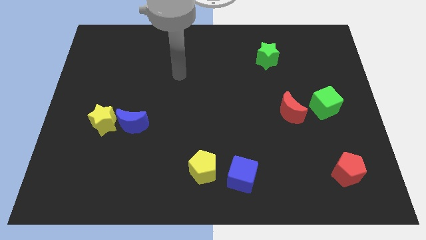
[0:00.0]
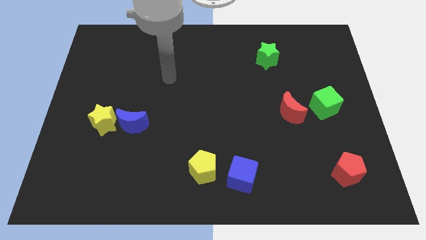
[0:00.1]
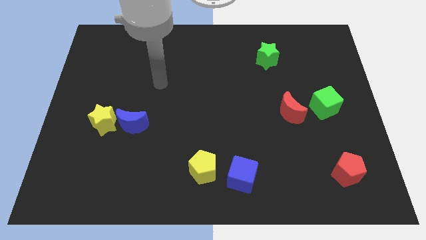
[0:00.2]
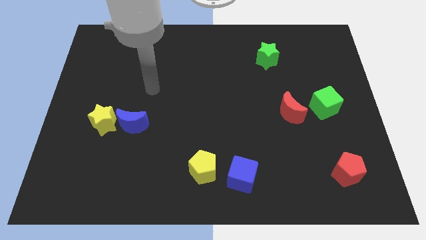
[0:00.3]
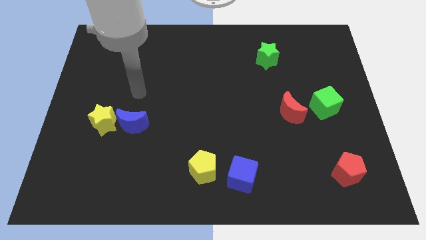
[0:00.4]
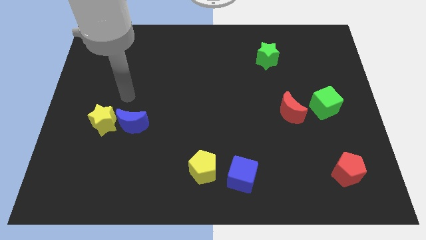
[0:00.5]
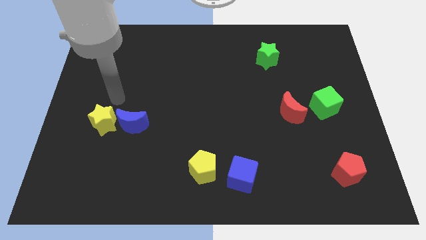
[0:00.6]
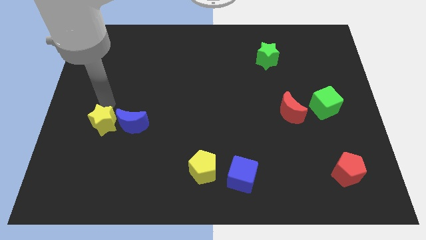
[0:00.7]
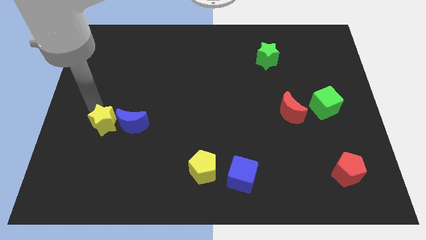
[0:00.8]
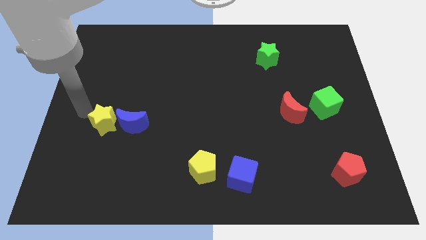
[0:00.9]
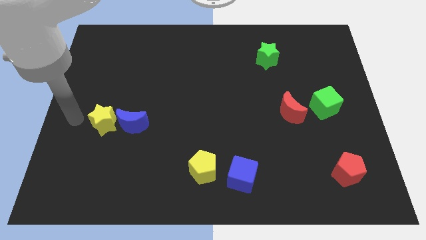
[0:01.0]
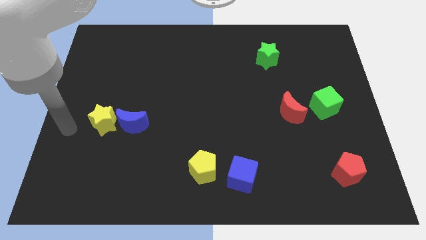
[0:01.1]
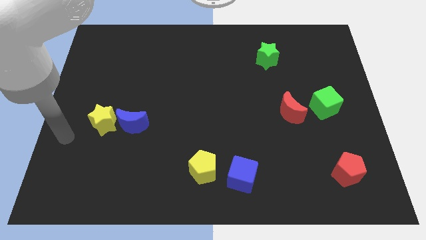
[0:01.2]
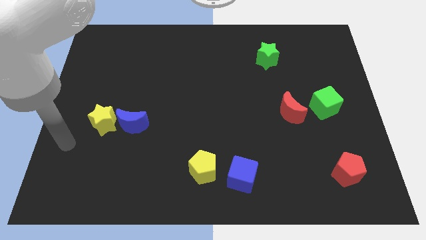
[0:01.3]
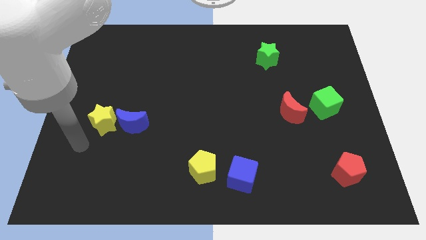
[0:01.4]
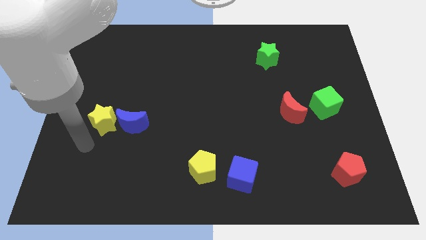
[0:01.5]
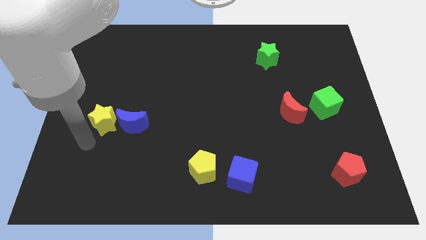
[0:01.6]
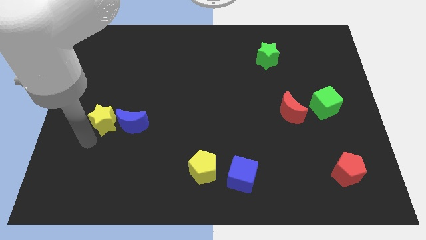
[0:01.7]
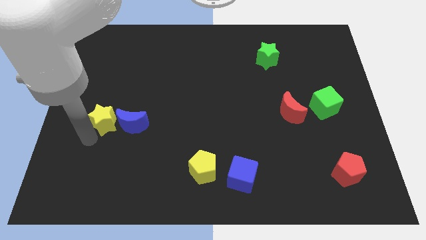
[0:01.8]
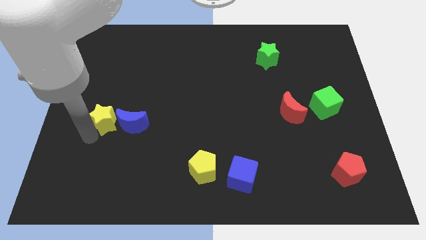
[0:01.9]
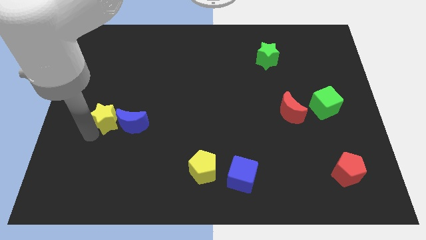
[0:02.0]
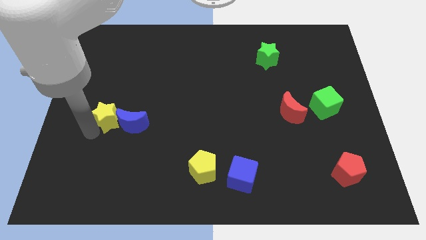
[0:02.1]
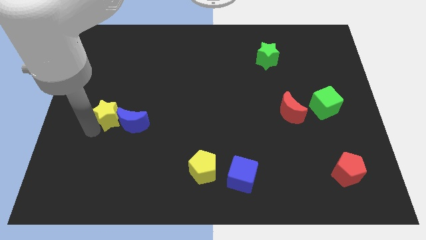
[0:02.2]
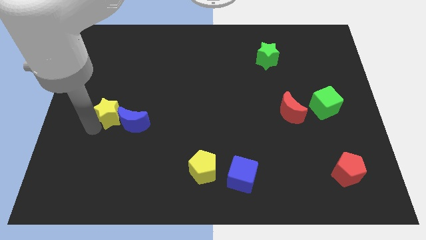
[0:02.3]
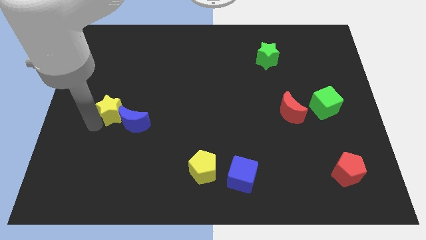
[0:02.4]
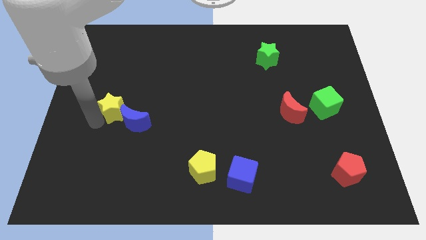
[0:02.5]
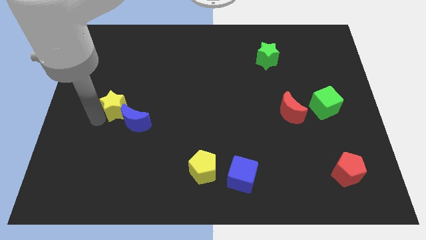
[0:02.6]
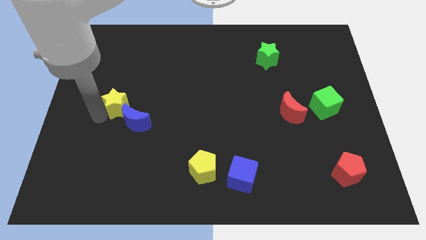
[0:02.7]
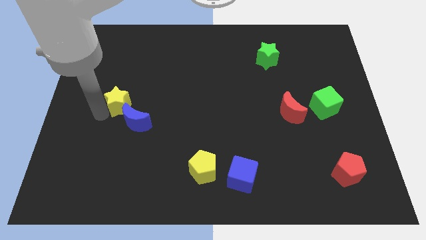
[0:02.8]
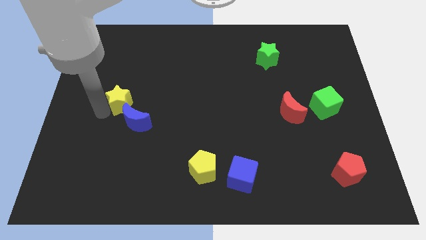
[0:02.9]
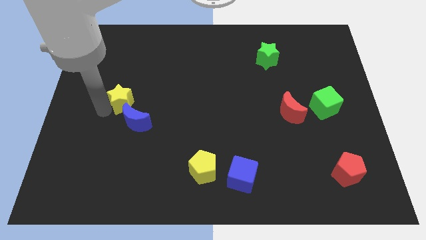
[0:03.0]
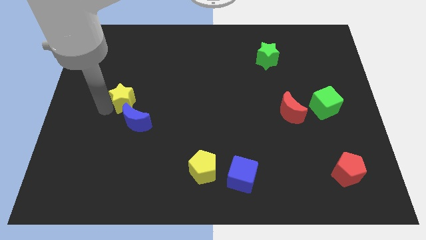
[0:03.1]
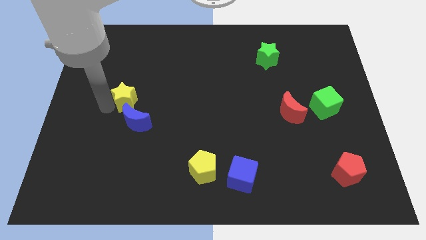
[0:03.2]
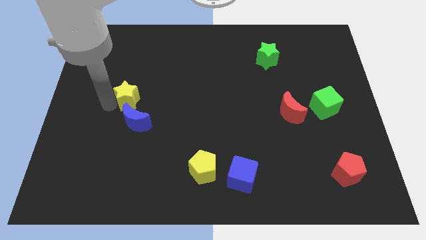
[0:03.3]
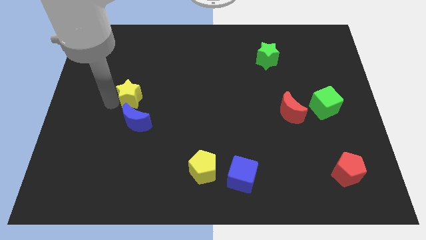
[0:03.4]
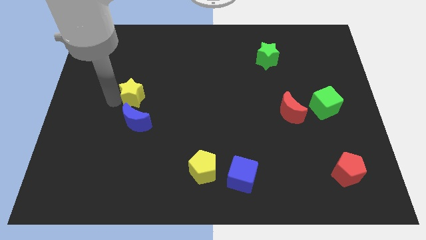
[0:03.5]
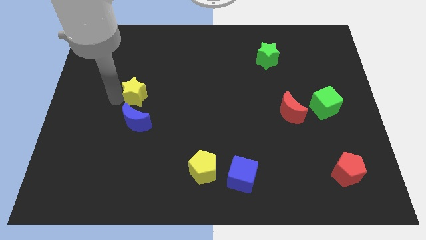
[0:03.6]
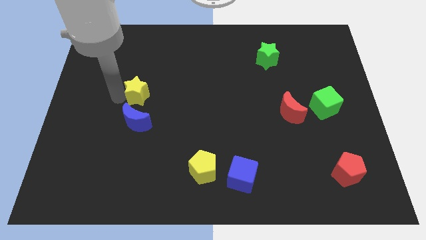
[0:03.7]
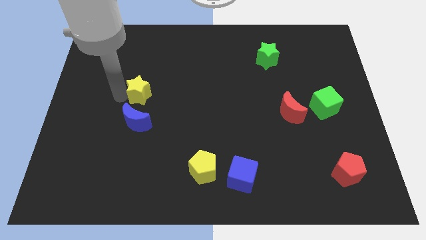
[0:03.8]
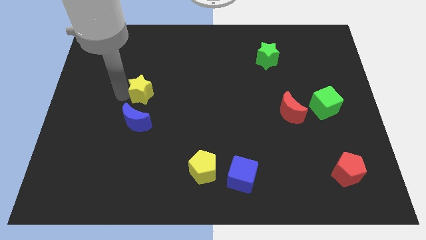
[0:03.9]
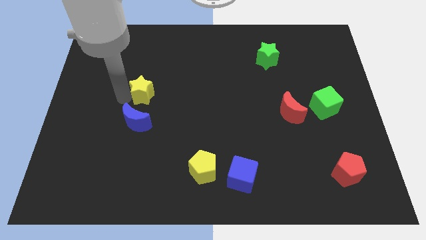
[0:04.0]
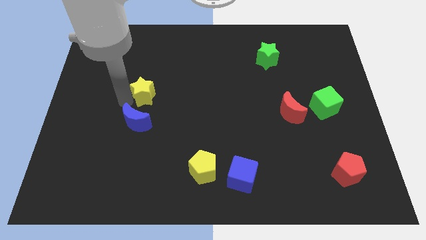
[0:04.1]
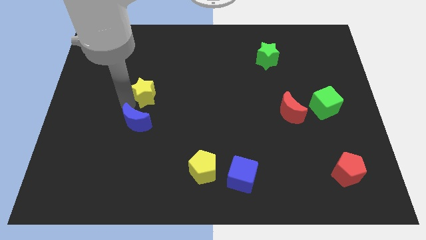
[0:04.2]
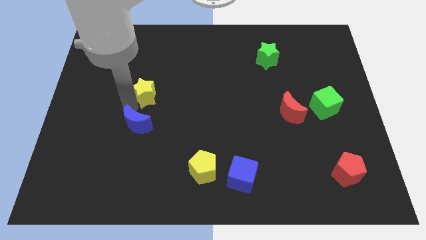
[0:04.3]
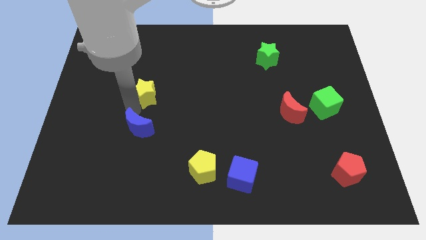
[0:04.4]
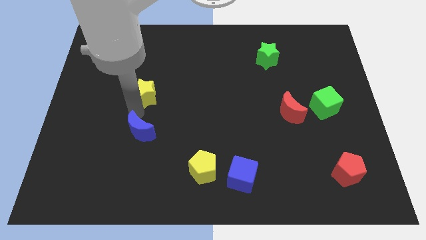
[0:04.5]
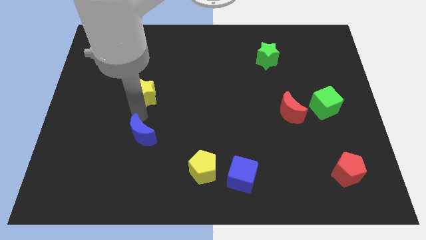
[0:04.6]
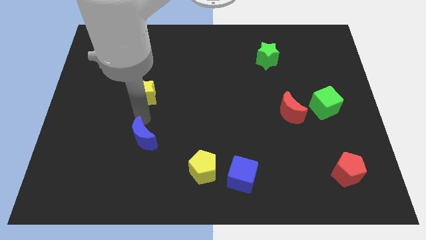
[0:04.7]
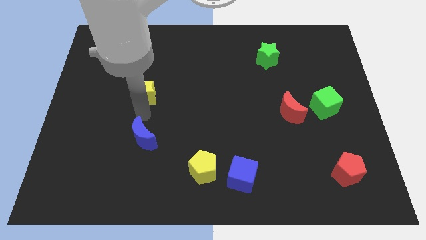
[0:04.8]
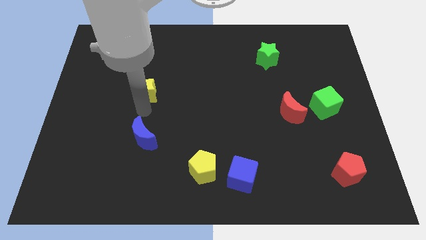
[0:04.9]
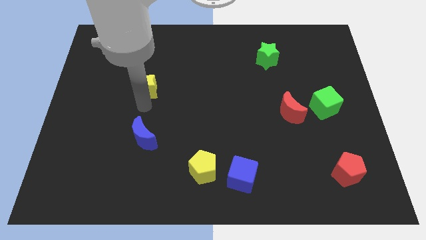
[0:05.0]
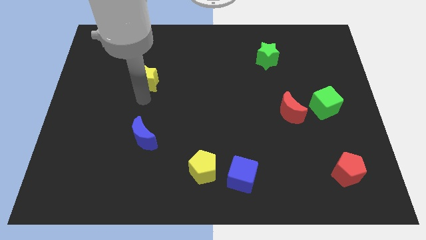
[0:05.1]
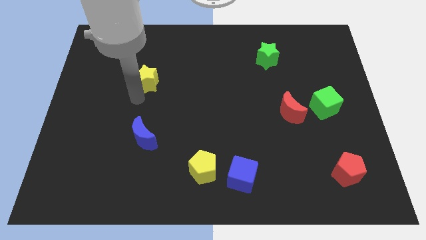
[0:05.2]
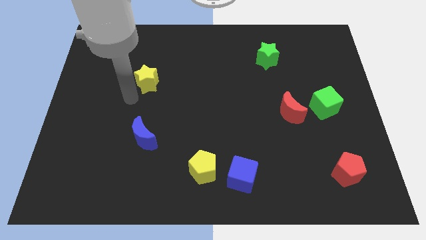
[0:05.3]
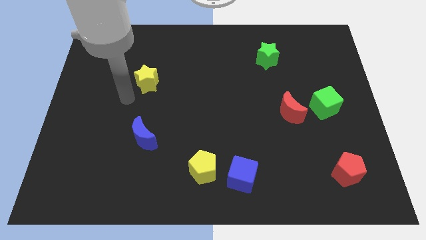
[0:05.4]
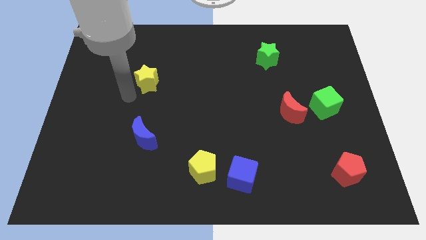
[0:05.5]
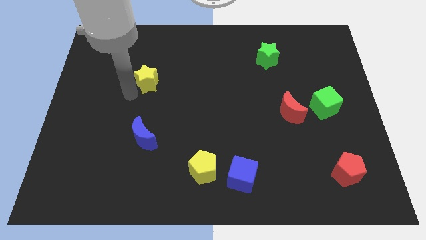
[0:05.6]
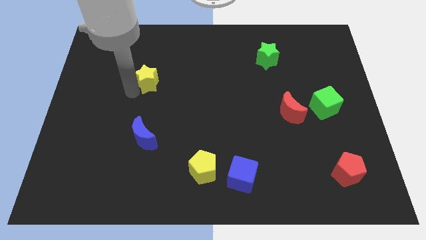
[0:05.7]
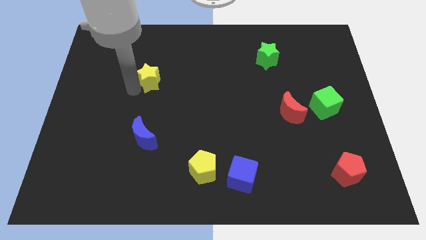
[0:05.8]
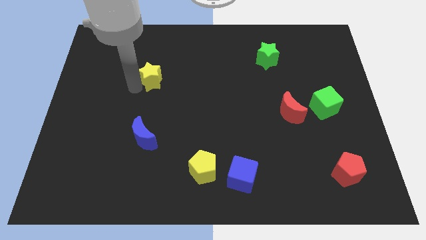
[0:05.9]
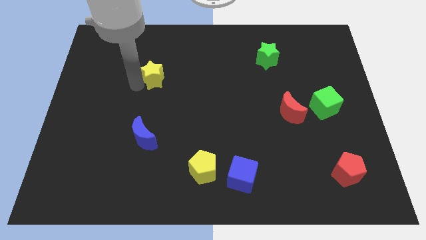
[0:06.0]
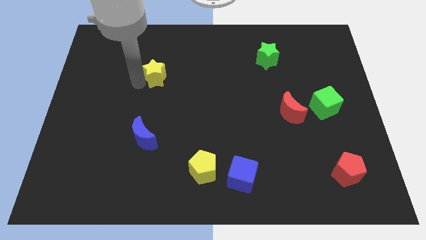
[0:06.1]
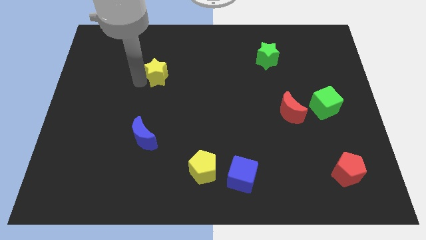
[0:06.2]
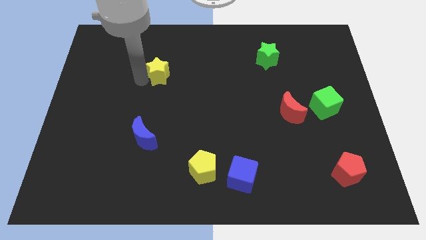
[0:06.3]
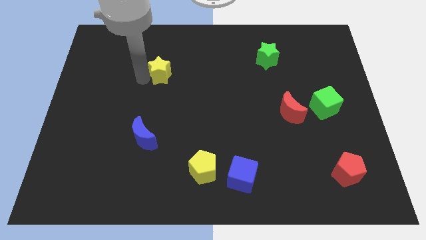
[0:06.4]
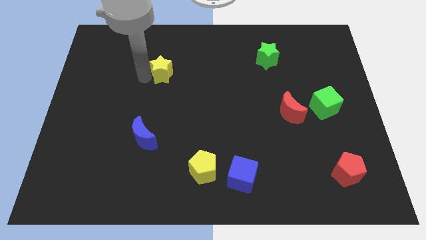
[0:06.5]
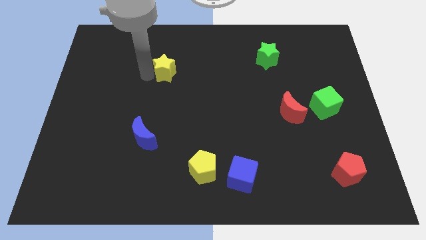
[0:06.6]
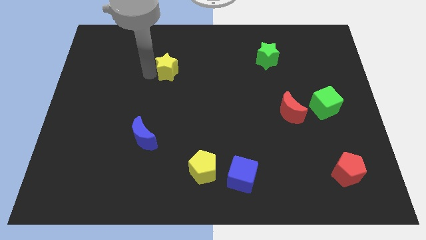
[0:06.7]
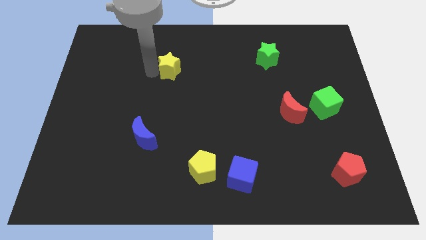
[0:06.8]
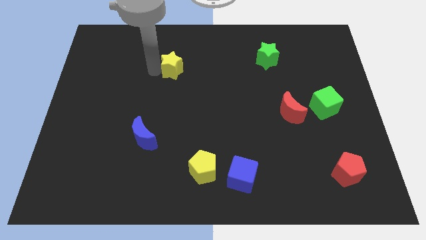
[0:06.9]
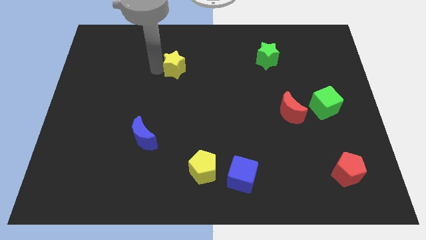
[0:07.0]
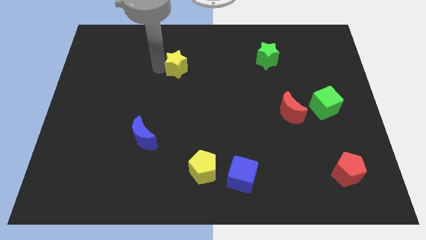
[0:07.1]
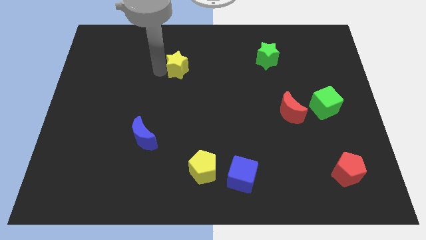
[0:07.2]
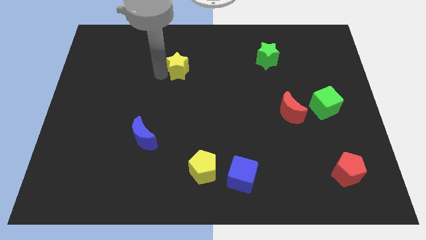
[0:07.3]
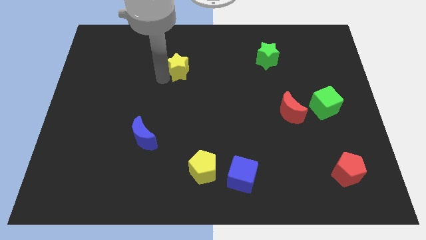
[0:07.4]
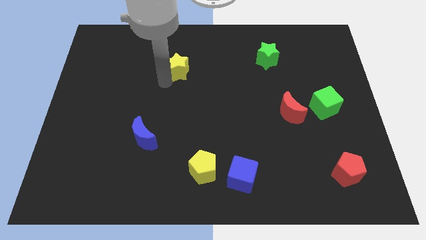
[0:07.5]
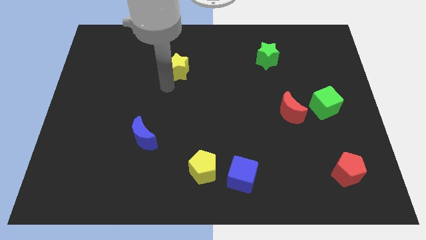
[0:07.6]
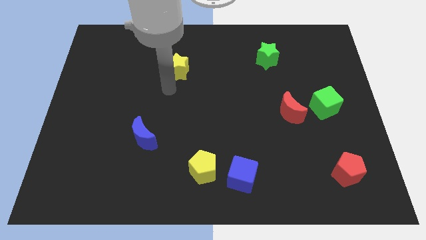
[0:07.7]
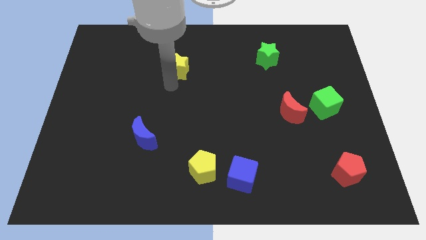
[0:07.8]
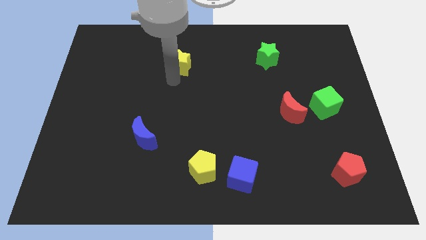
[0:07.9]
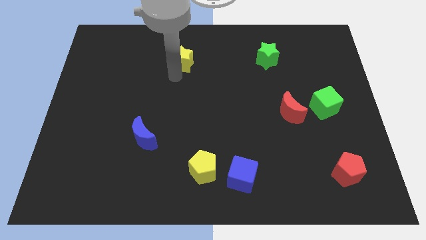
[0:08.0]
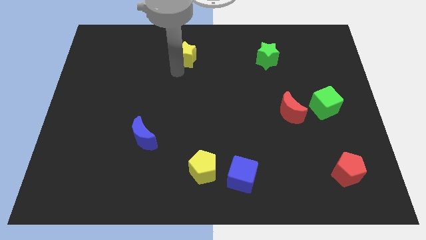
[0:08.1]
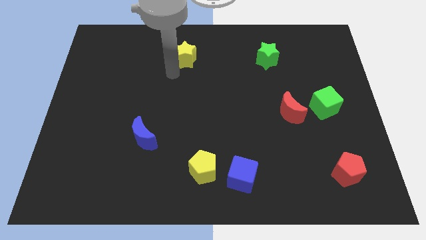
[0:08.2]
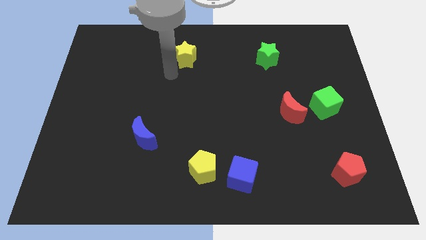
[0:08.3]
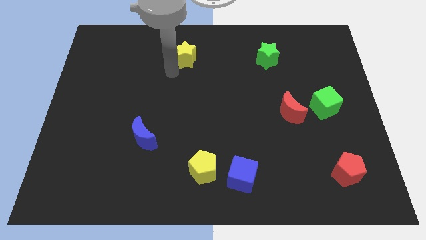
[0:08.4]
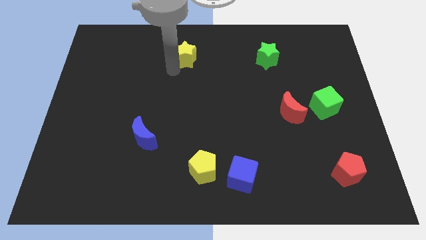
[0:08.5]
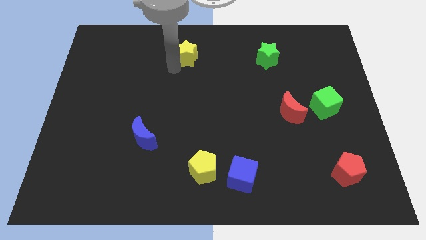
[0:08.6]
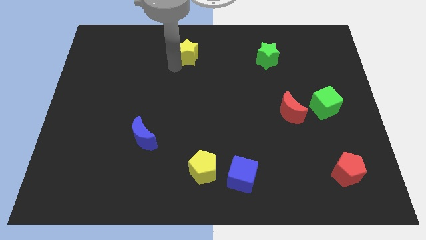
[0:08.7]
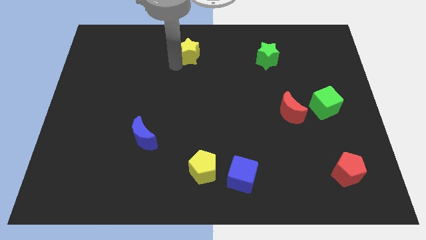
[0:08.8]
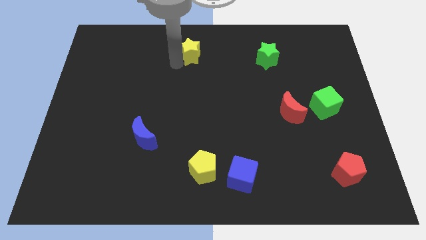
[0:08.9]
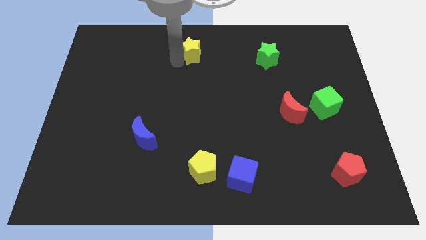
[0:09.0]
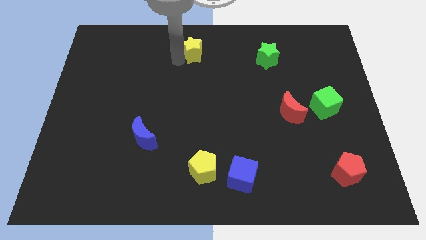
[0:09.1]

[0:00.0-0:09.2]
slide the yellow star to the top side
